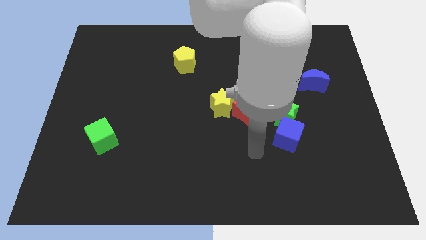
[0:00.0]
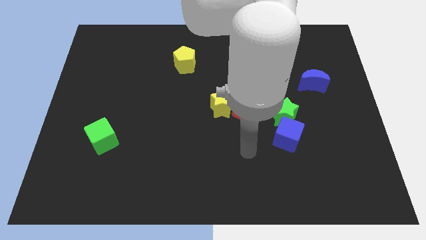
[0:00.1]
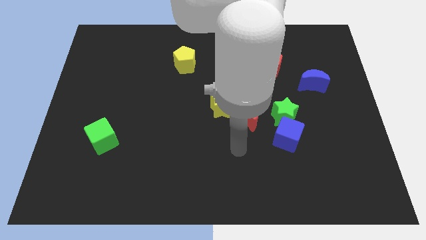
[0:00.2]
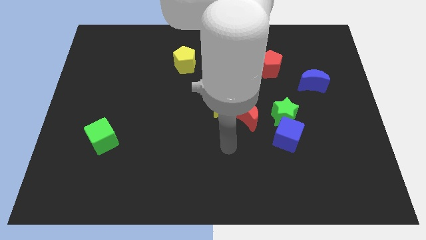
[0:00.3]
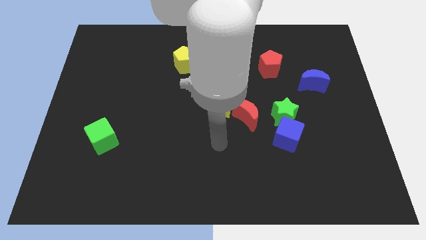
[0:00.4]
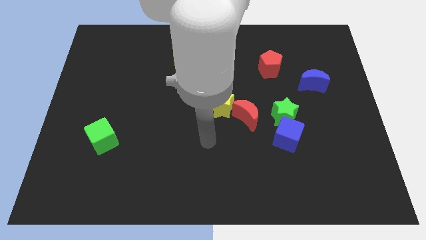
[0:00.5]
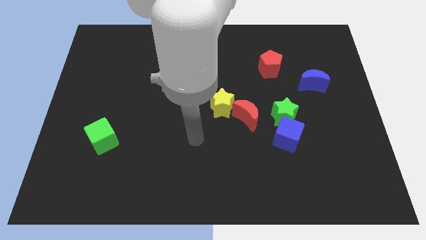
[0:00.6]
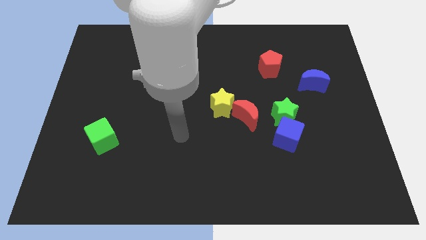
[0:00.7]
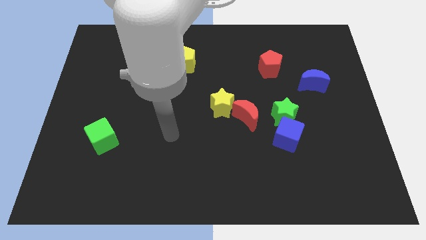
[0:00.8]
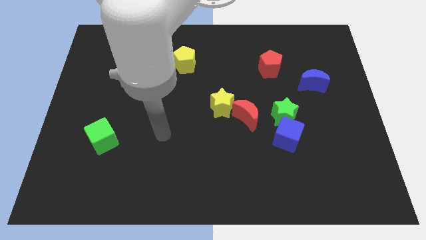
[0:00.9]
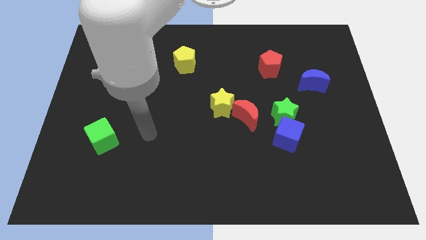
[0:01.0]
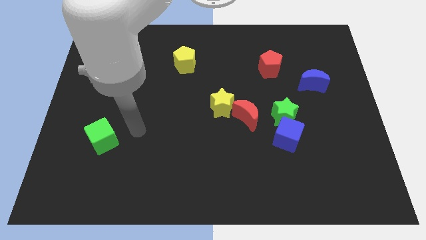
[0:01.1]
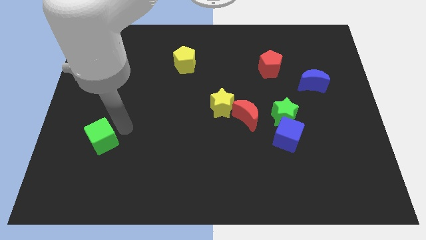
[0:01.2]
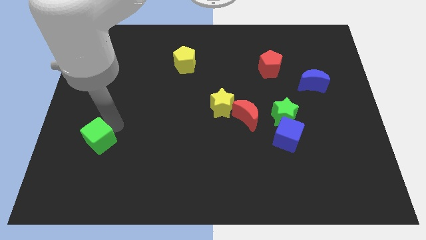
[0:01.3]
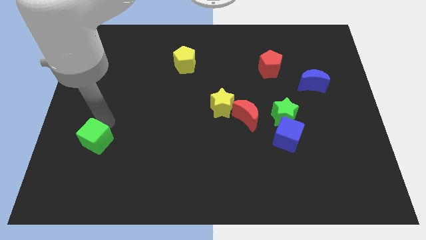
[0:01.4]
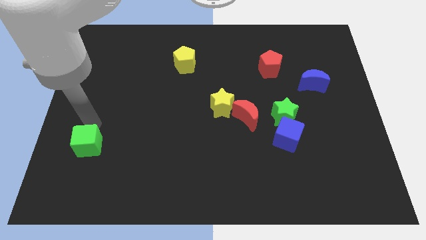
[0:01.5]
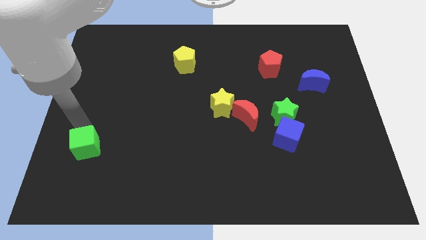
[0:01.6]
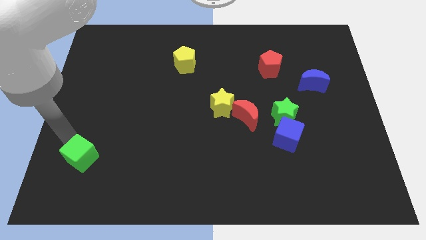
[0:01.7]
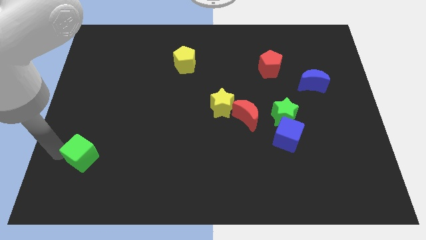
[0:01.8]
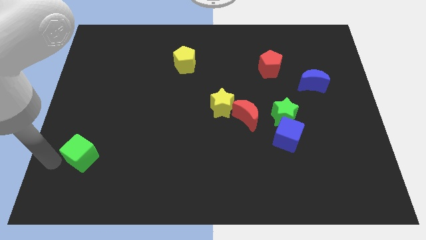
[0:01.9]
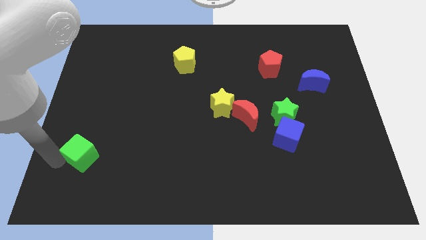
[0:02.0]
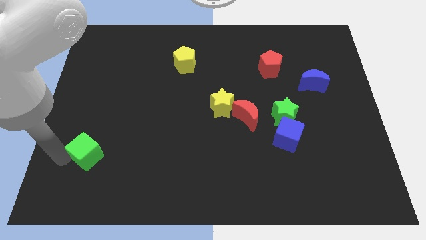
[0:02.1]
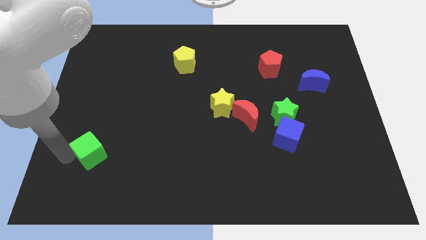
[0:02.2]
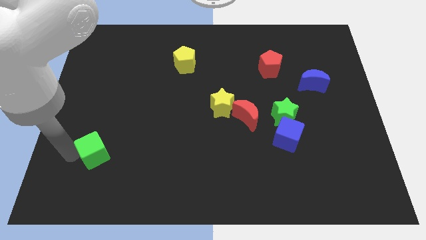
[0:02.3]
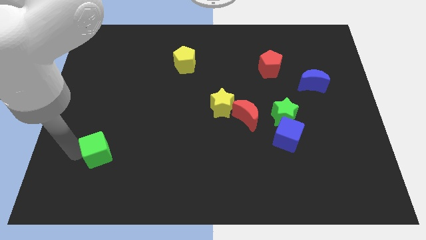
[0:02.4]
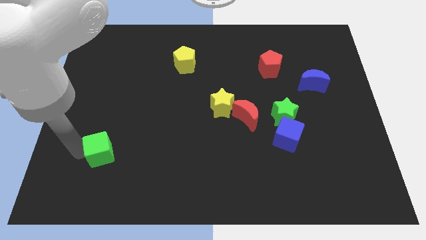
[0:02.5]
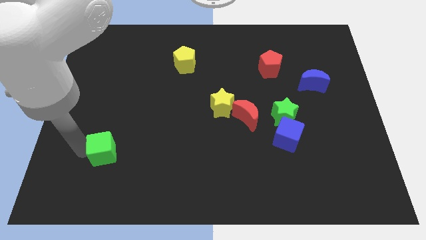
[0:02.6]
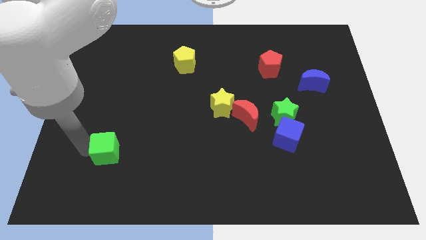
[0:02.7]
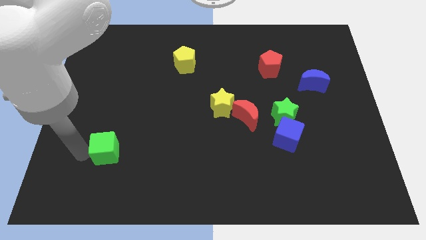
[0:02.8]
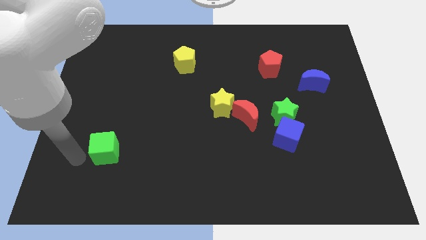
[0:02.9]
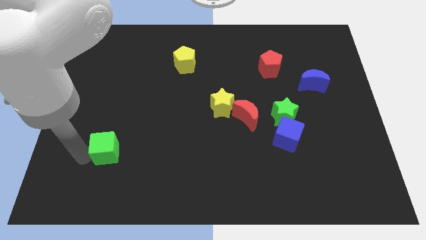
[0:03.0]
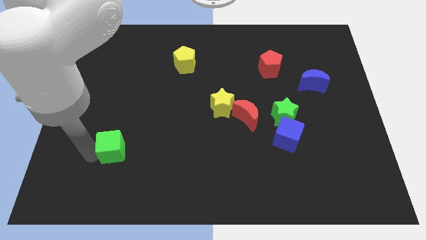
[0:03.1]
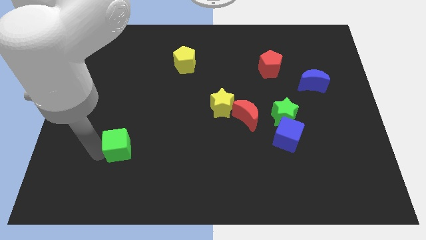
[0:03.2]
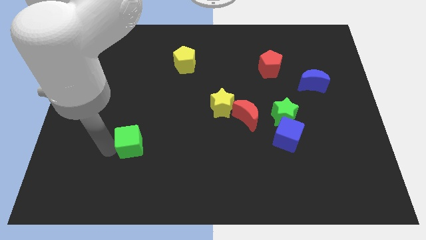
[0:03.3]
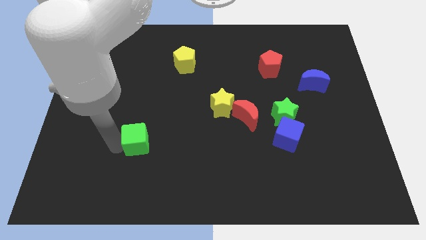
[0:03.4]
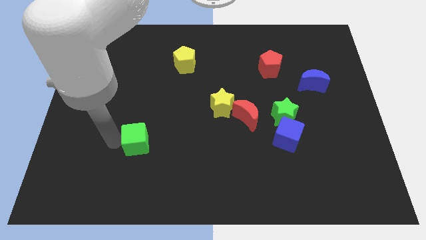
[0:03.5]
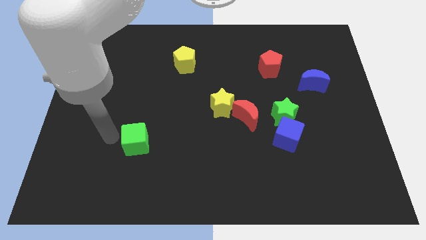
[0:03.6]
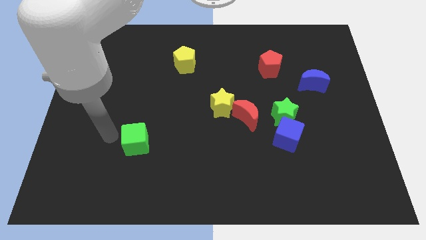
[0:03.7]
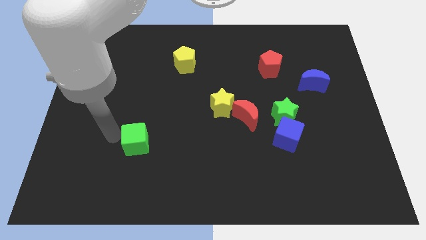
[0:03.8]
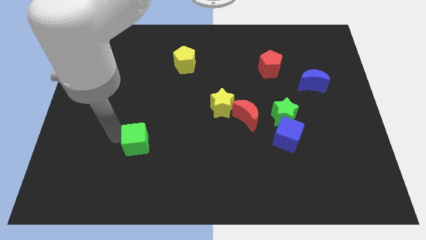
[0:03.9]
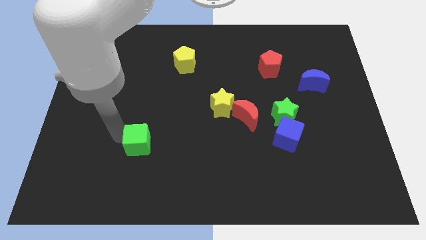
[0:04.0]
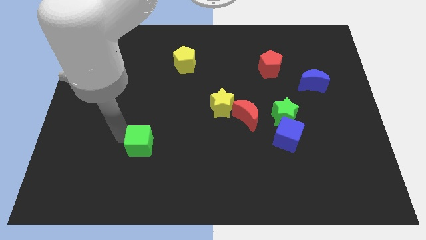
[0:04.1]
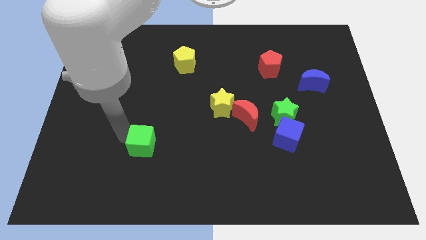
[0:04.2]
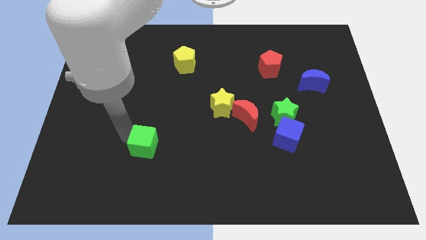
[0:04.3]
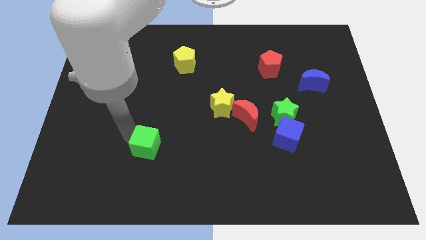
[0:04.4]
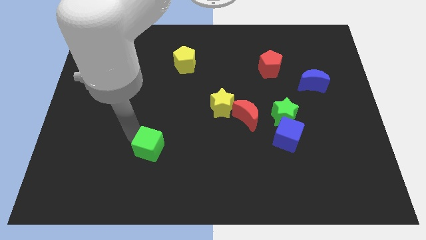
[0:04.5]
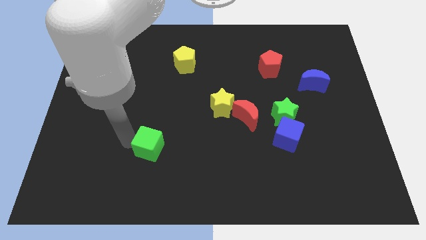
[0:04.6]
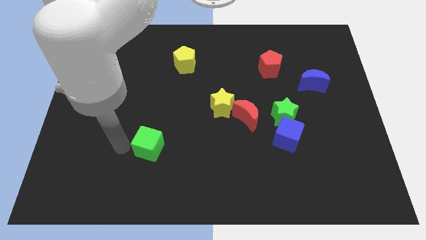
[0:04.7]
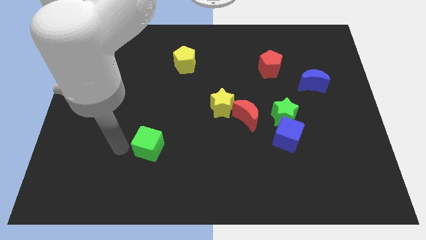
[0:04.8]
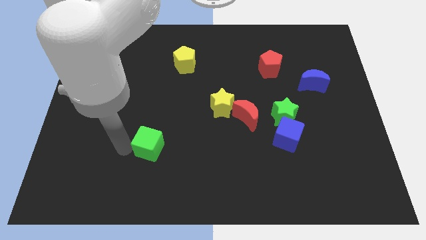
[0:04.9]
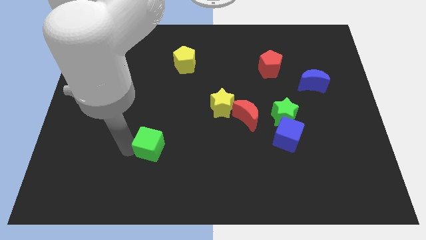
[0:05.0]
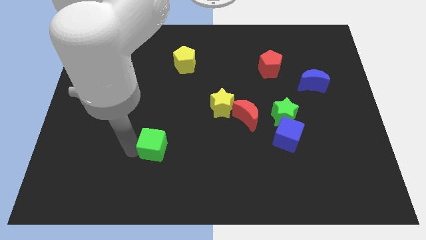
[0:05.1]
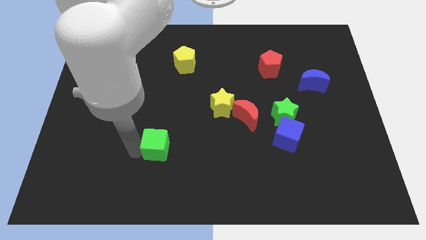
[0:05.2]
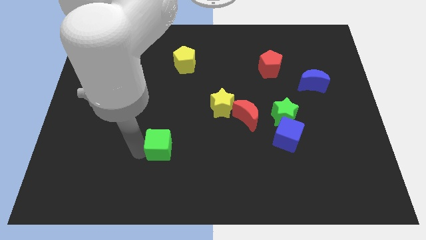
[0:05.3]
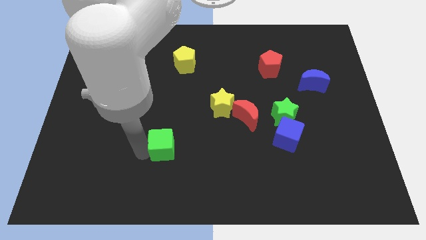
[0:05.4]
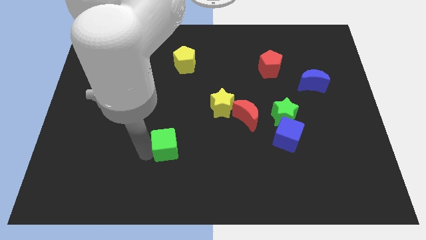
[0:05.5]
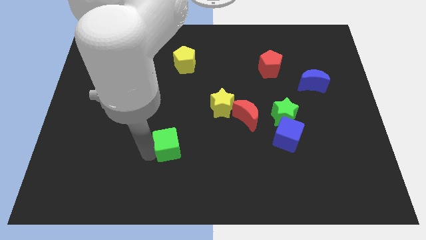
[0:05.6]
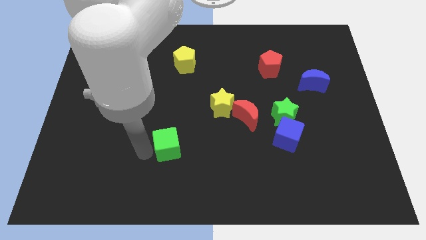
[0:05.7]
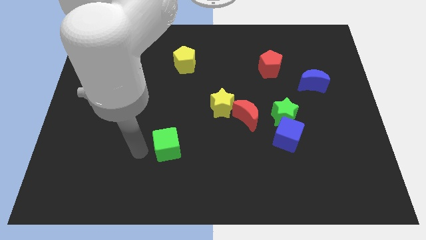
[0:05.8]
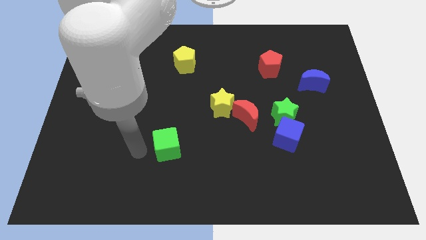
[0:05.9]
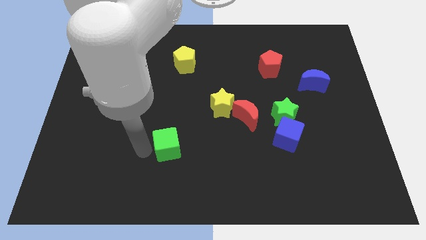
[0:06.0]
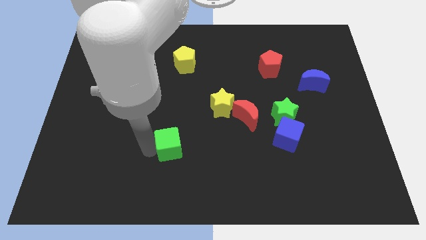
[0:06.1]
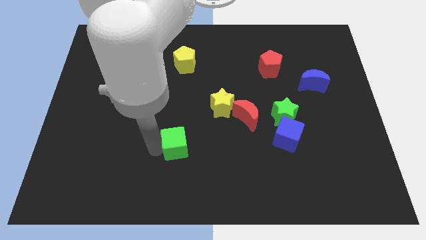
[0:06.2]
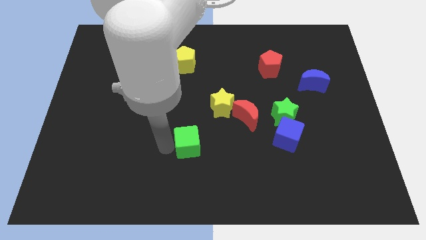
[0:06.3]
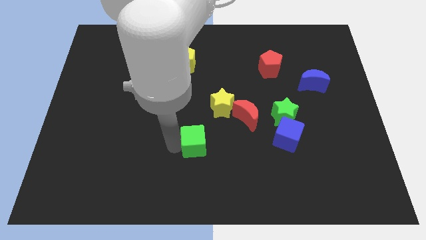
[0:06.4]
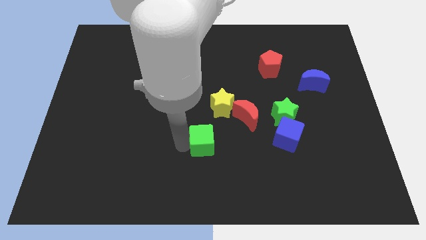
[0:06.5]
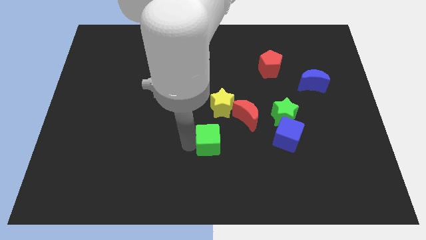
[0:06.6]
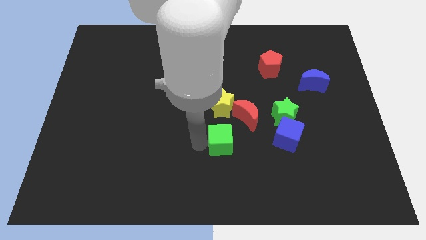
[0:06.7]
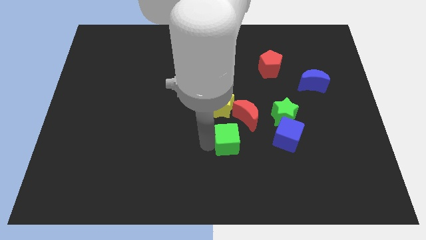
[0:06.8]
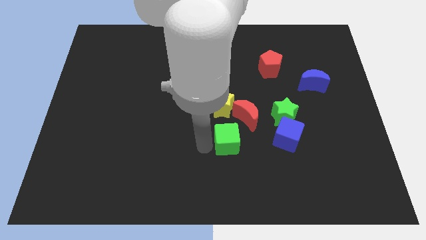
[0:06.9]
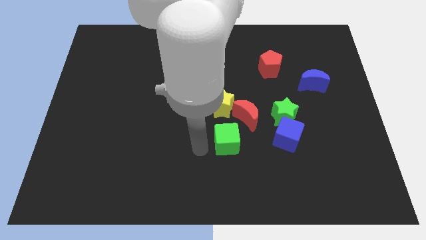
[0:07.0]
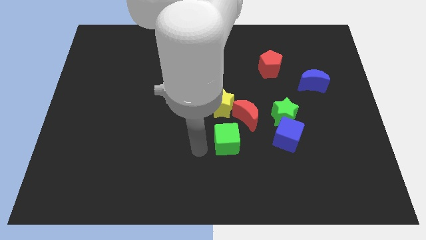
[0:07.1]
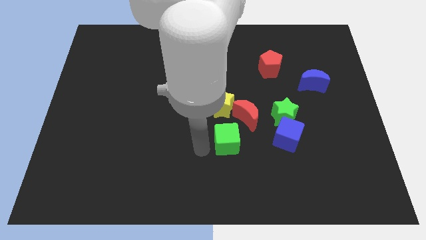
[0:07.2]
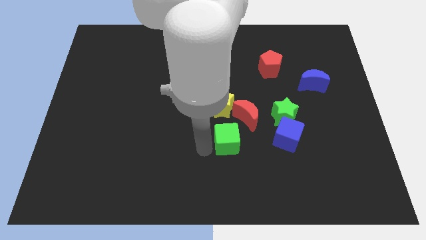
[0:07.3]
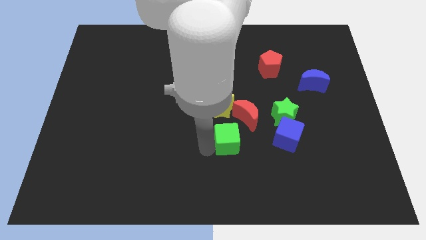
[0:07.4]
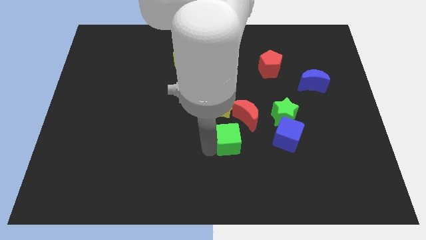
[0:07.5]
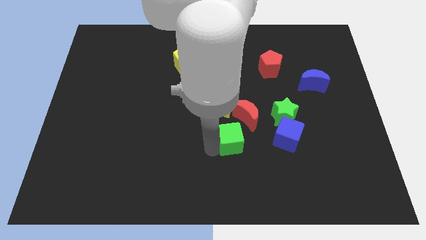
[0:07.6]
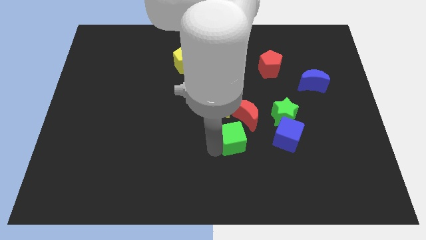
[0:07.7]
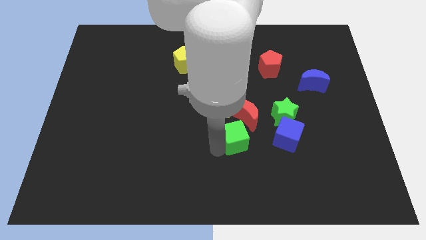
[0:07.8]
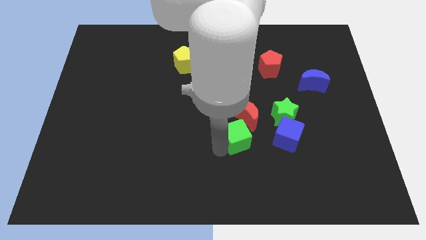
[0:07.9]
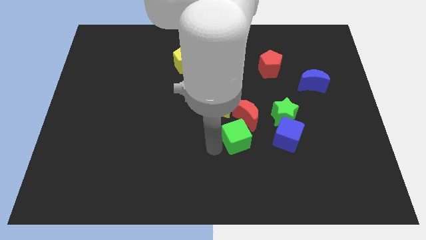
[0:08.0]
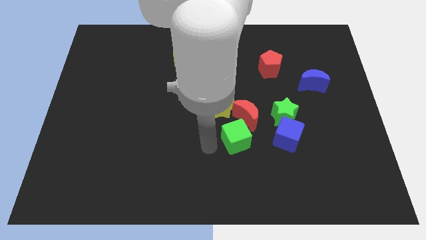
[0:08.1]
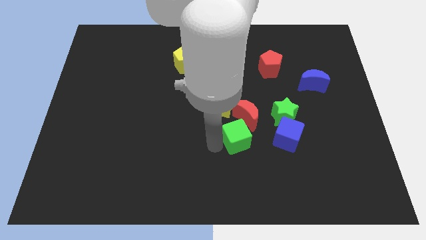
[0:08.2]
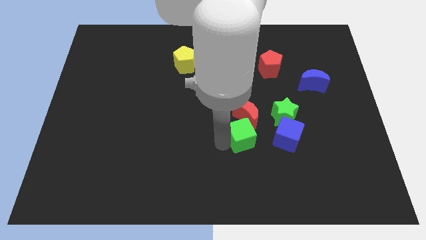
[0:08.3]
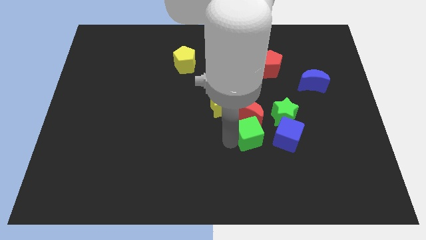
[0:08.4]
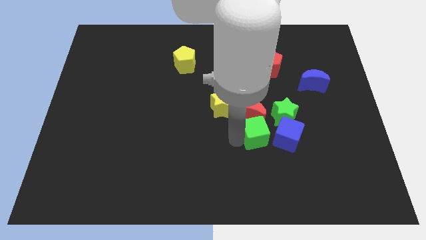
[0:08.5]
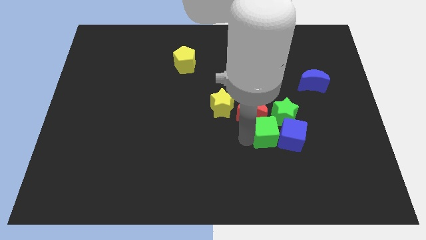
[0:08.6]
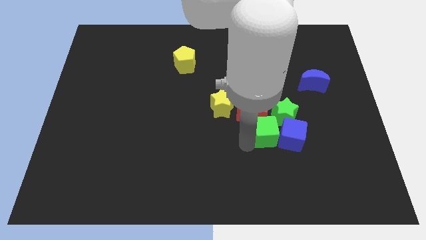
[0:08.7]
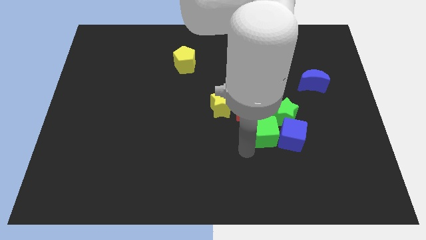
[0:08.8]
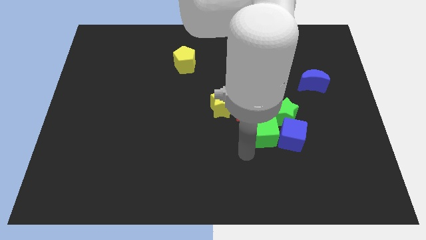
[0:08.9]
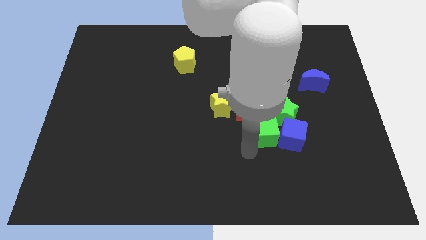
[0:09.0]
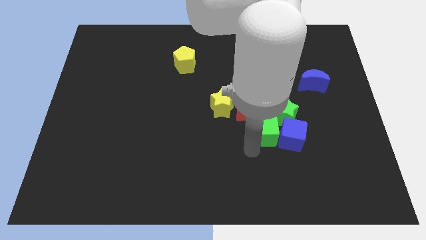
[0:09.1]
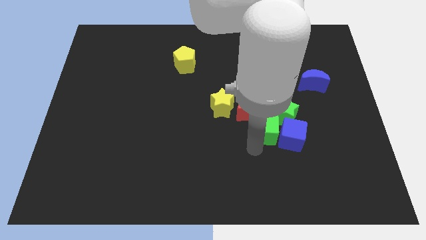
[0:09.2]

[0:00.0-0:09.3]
push the green cube close to the green star
